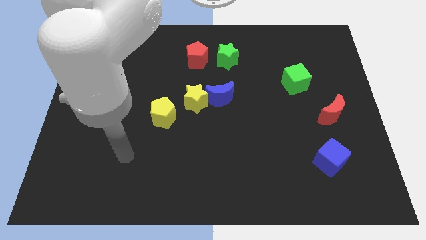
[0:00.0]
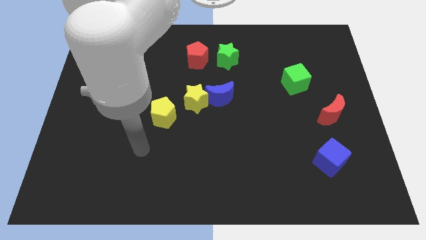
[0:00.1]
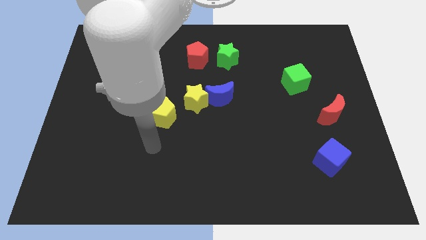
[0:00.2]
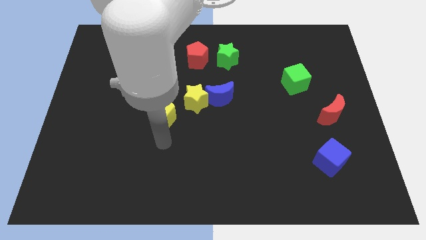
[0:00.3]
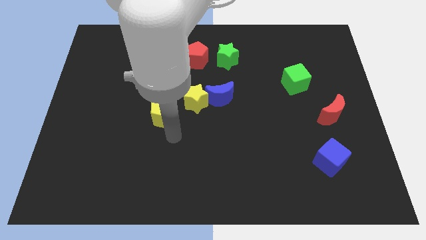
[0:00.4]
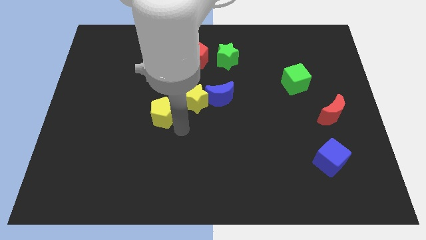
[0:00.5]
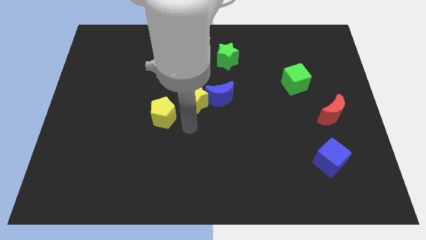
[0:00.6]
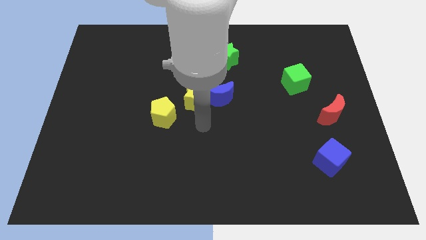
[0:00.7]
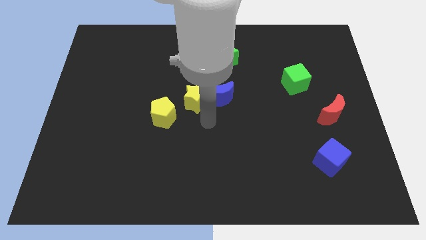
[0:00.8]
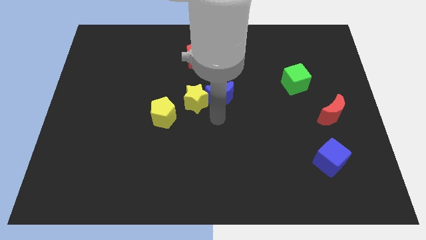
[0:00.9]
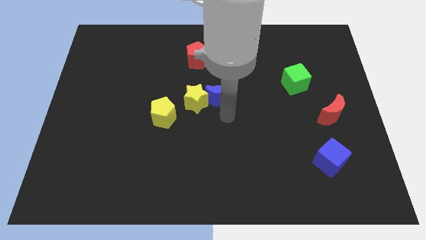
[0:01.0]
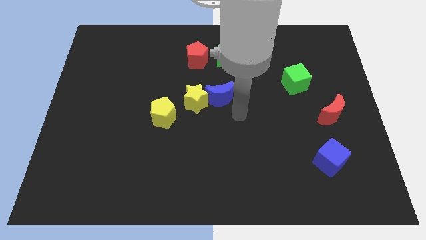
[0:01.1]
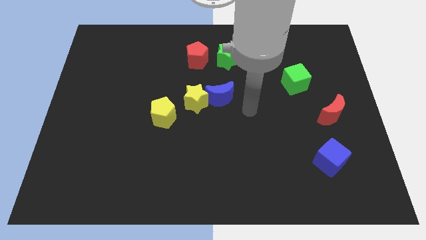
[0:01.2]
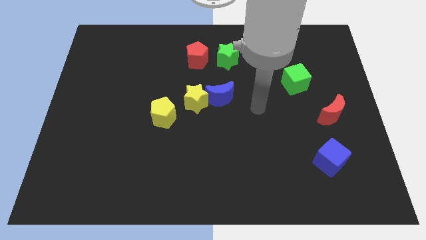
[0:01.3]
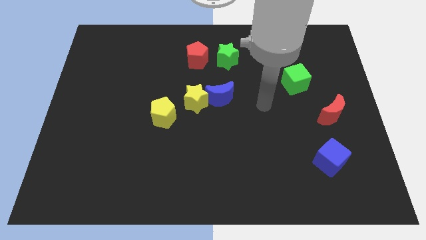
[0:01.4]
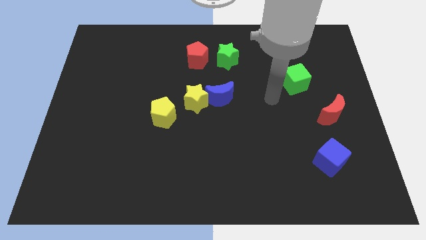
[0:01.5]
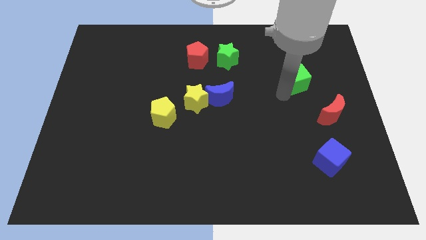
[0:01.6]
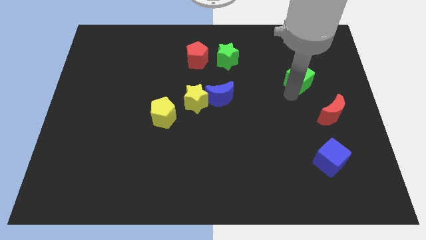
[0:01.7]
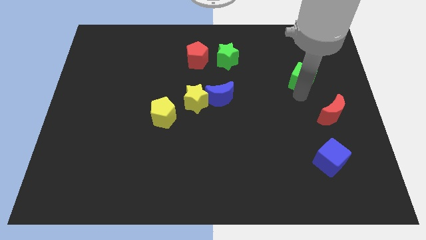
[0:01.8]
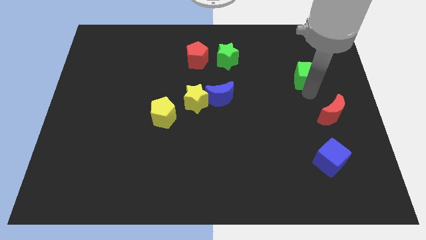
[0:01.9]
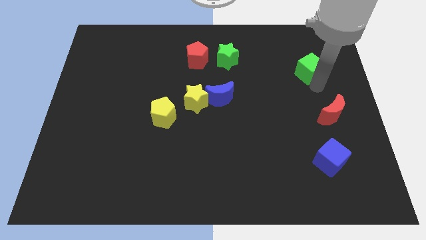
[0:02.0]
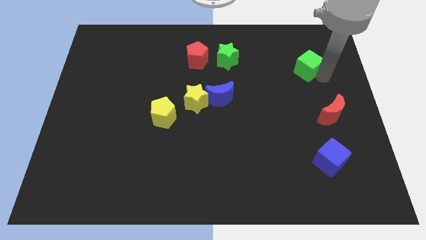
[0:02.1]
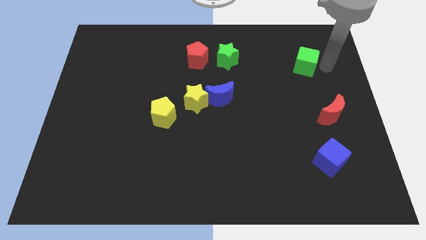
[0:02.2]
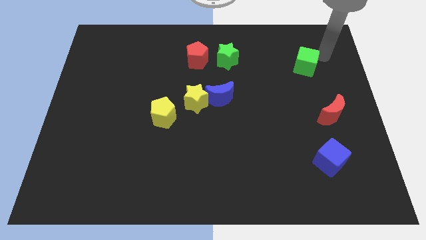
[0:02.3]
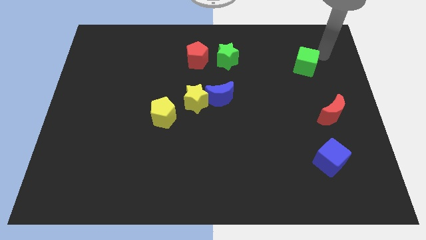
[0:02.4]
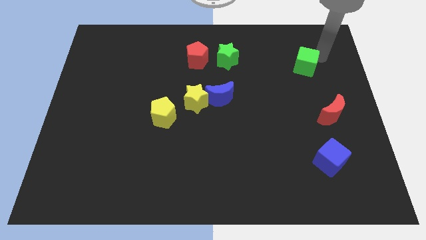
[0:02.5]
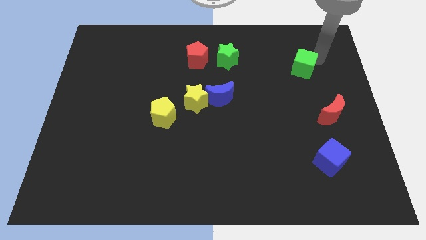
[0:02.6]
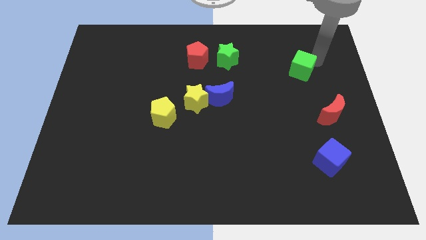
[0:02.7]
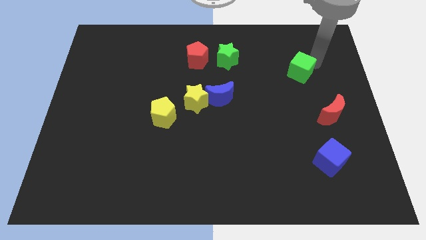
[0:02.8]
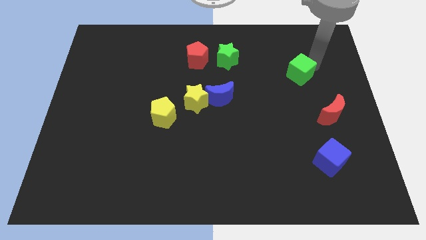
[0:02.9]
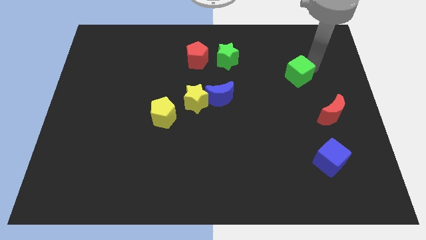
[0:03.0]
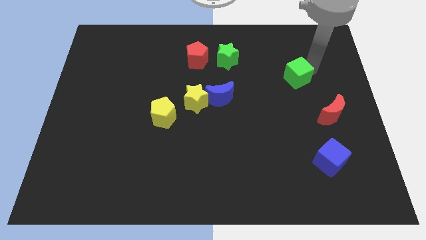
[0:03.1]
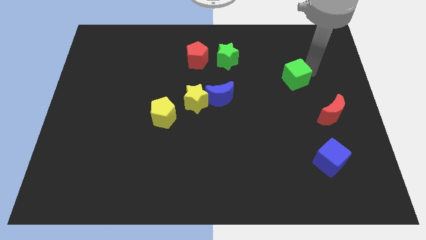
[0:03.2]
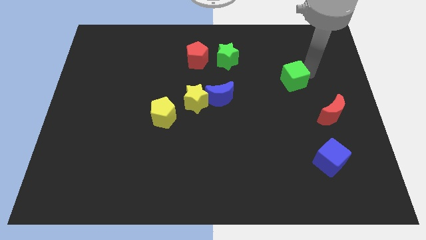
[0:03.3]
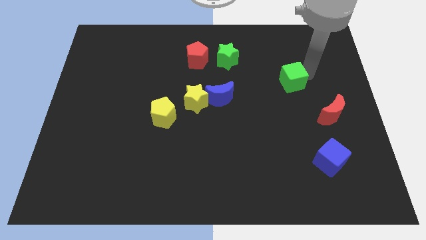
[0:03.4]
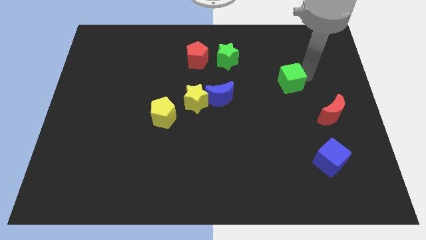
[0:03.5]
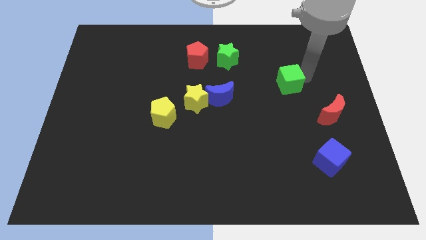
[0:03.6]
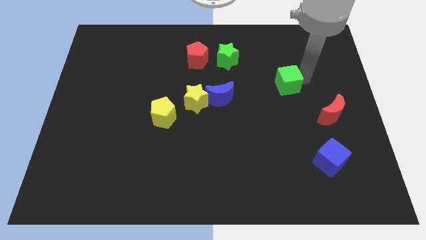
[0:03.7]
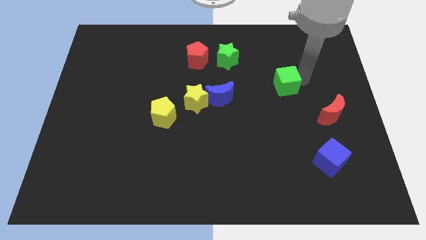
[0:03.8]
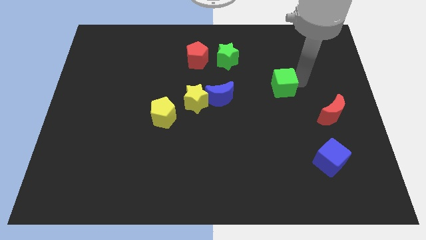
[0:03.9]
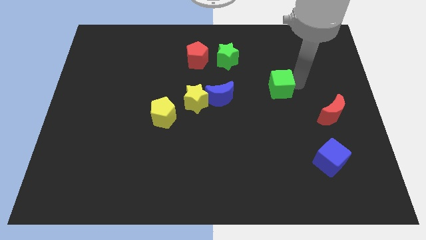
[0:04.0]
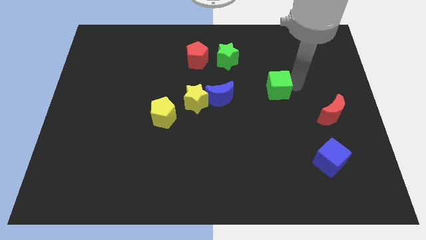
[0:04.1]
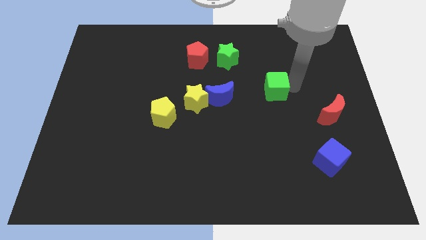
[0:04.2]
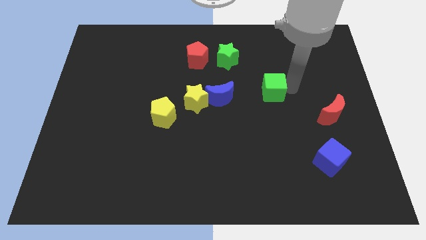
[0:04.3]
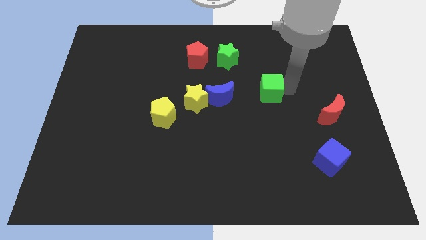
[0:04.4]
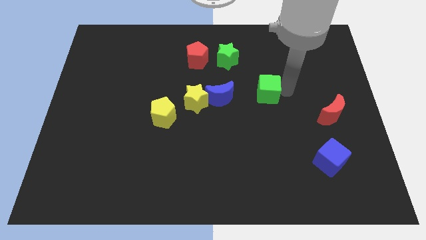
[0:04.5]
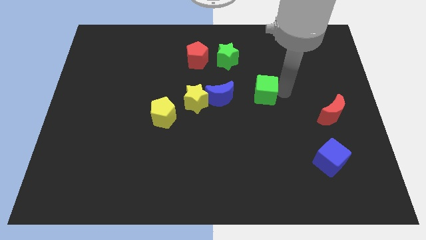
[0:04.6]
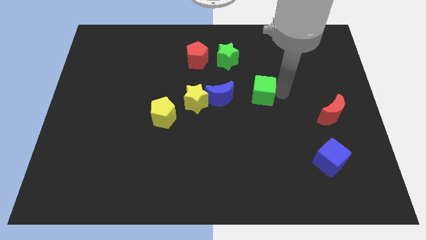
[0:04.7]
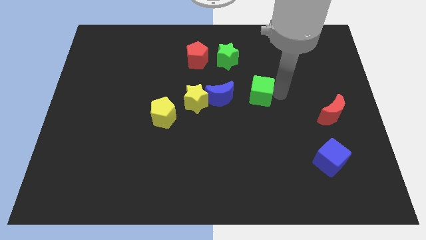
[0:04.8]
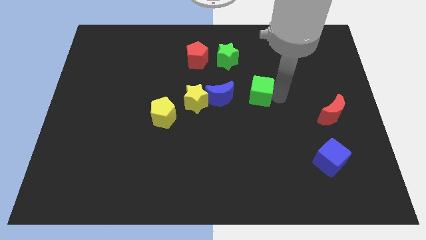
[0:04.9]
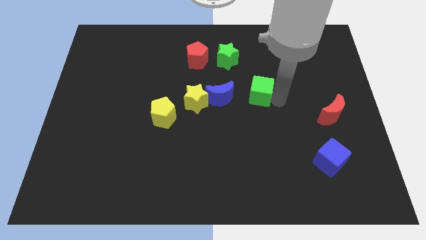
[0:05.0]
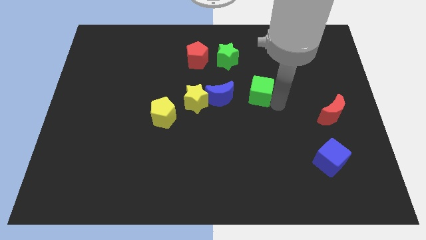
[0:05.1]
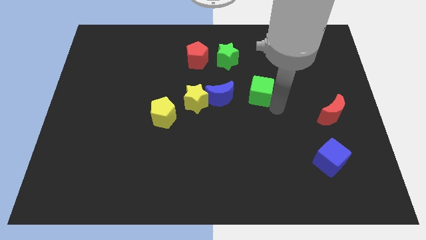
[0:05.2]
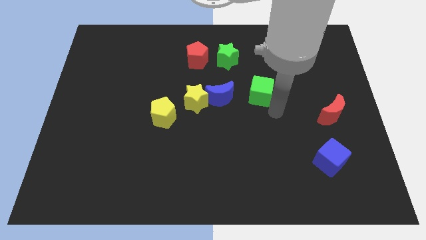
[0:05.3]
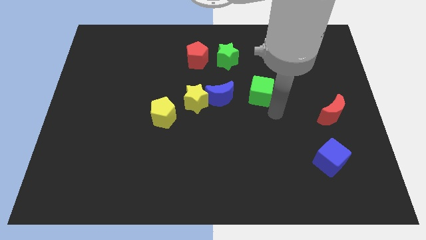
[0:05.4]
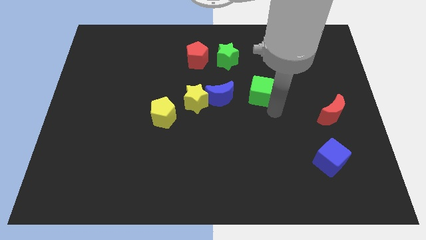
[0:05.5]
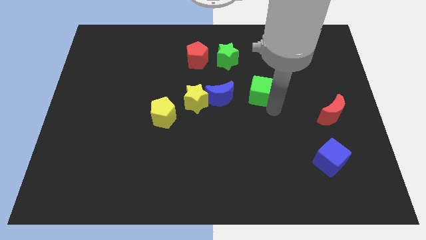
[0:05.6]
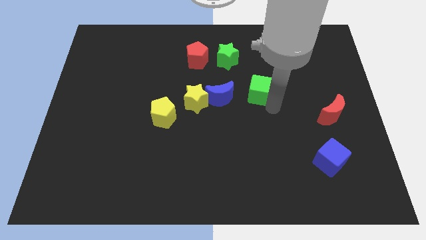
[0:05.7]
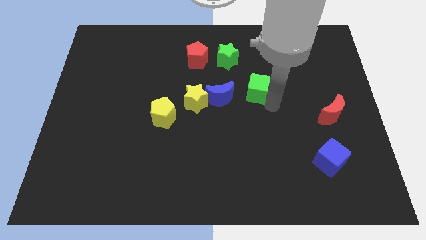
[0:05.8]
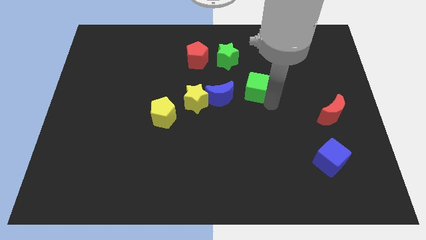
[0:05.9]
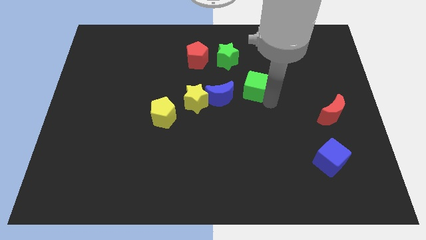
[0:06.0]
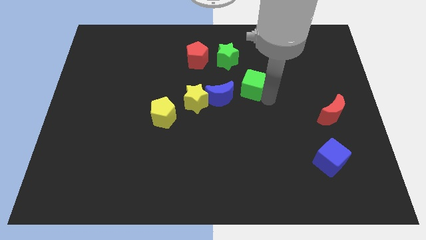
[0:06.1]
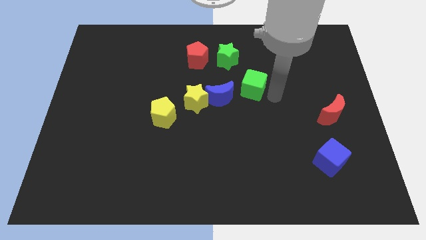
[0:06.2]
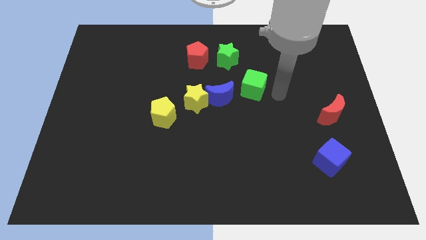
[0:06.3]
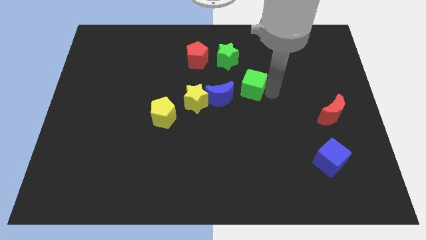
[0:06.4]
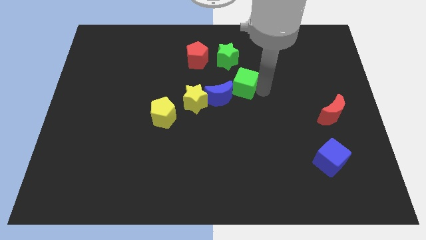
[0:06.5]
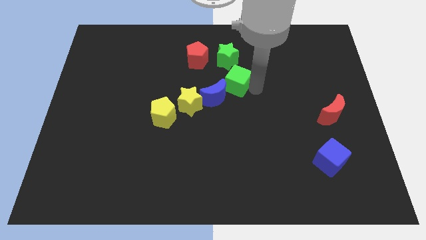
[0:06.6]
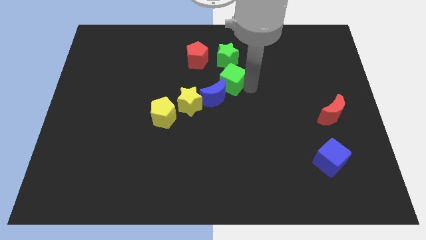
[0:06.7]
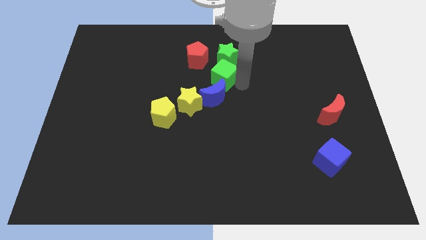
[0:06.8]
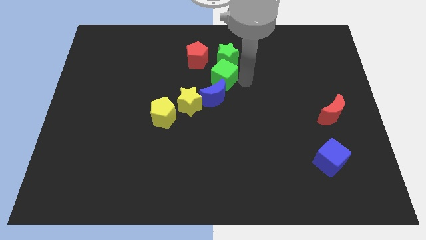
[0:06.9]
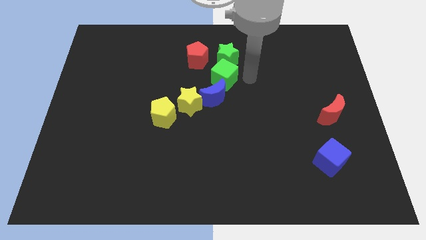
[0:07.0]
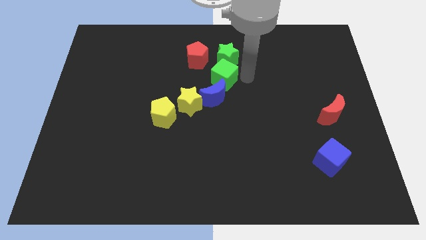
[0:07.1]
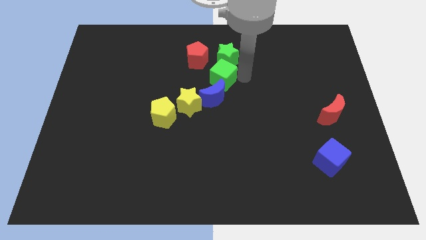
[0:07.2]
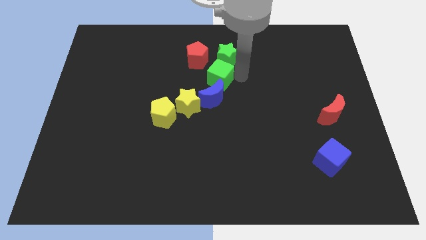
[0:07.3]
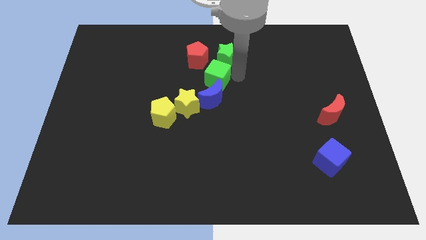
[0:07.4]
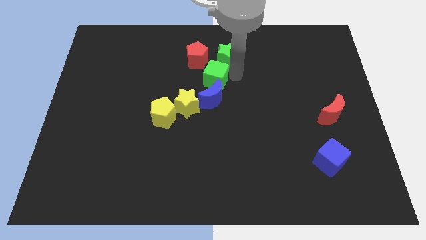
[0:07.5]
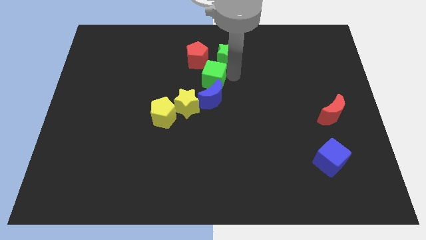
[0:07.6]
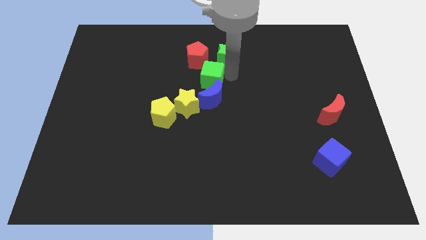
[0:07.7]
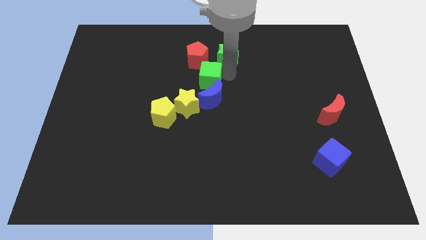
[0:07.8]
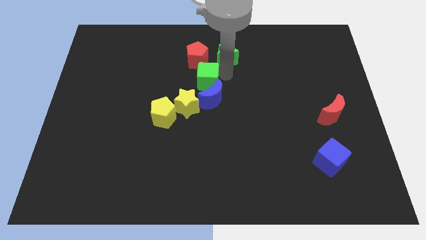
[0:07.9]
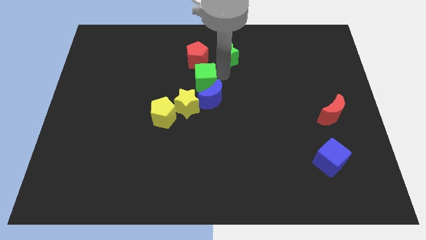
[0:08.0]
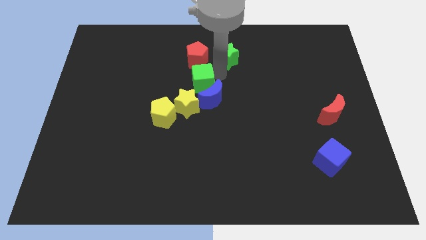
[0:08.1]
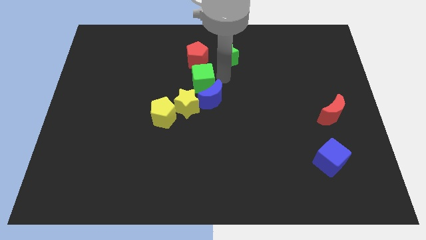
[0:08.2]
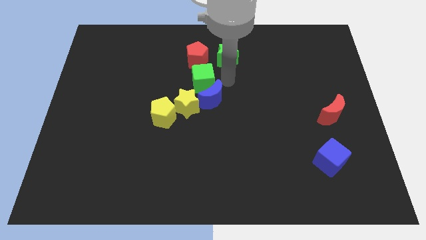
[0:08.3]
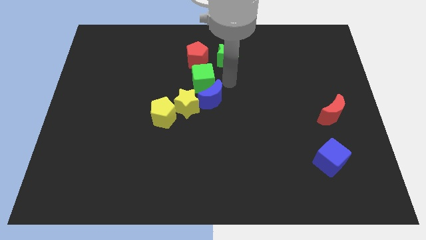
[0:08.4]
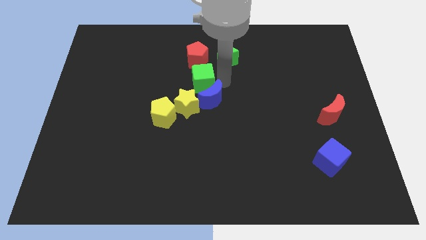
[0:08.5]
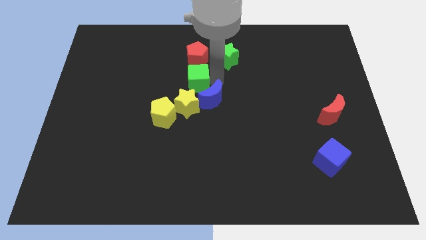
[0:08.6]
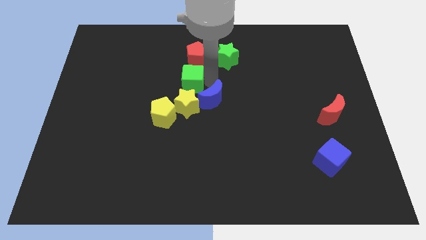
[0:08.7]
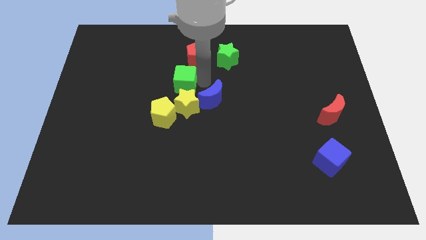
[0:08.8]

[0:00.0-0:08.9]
slide the green cube to the top of the yellow pentagon
